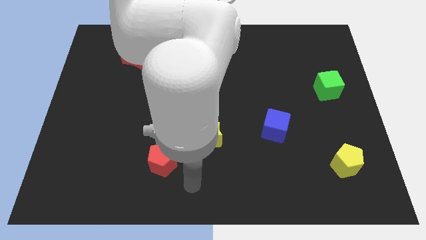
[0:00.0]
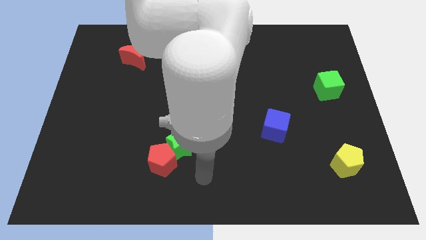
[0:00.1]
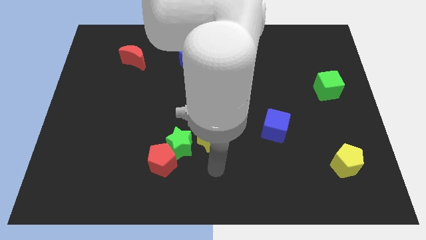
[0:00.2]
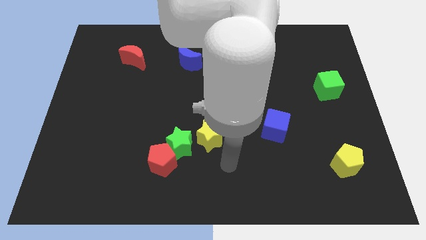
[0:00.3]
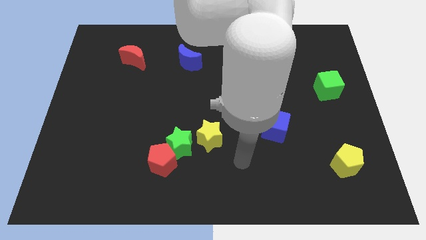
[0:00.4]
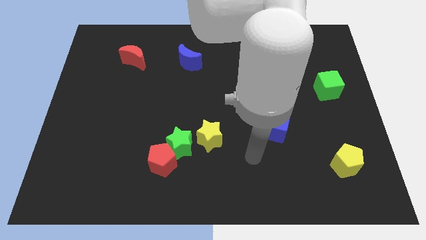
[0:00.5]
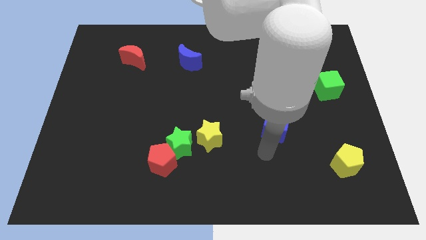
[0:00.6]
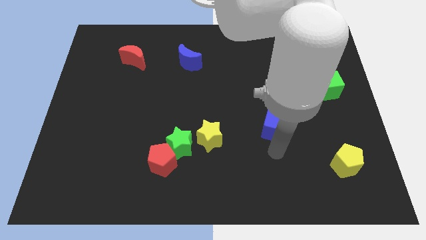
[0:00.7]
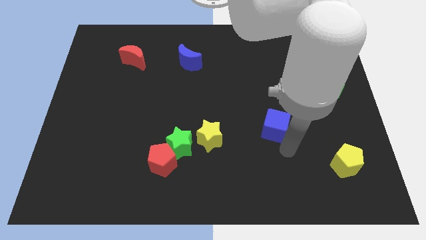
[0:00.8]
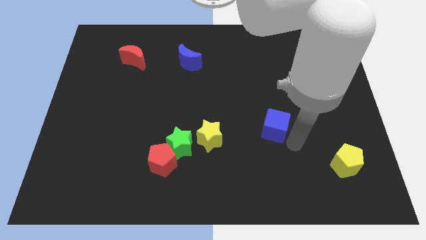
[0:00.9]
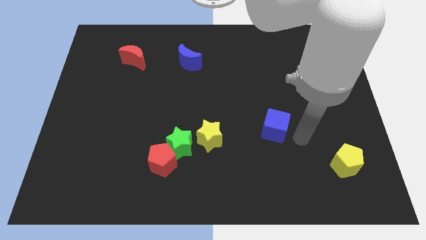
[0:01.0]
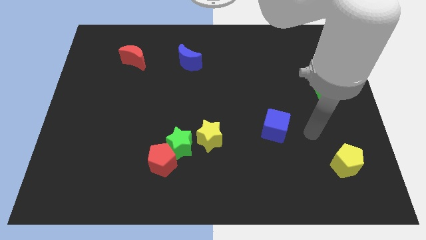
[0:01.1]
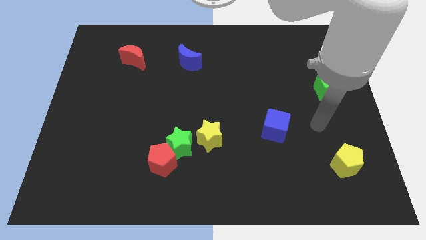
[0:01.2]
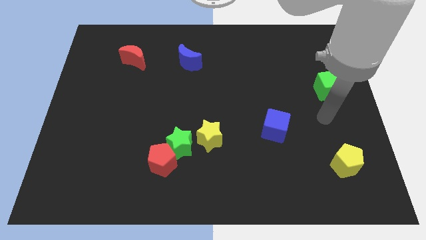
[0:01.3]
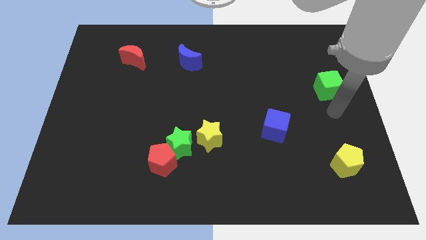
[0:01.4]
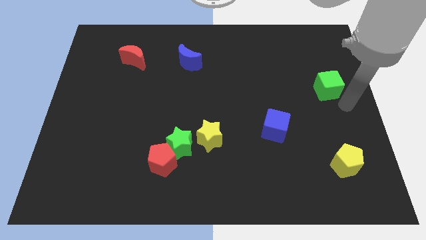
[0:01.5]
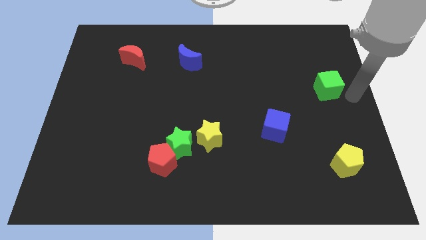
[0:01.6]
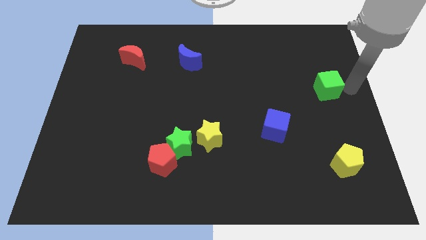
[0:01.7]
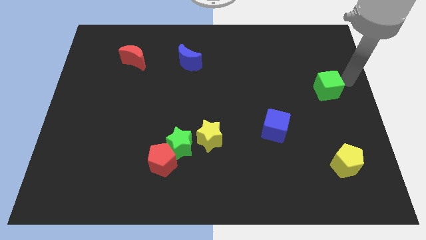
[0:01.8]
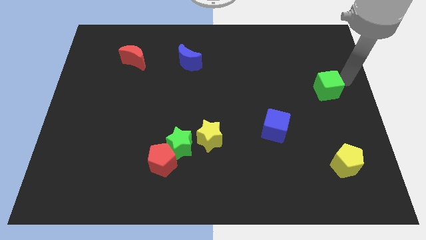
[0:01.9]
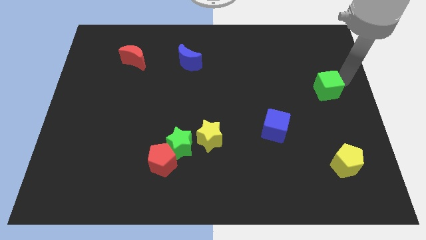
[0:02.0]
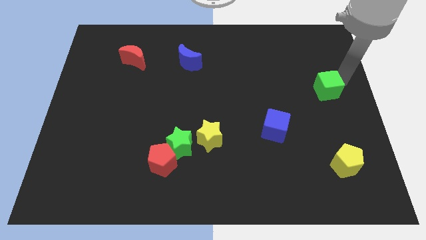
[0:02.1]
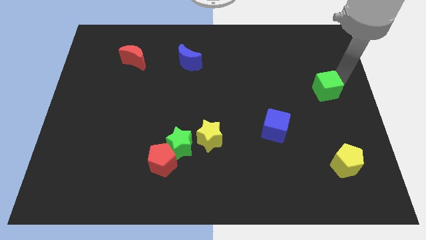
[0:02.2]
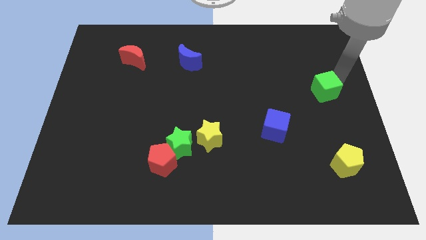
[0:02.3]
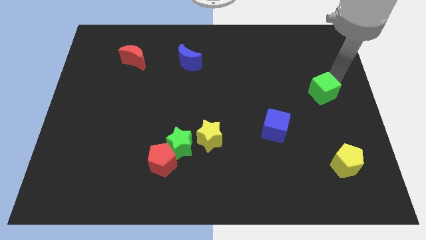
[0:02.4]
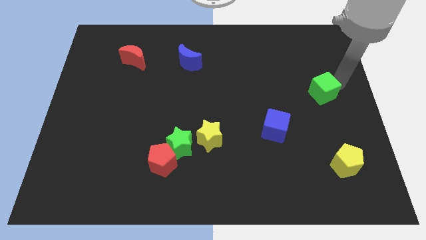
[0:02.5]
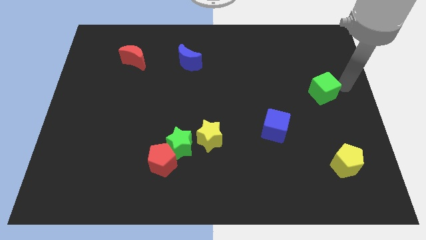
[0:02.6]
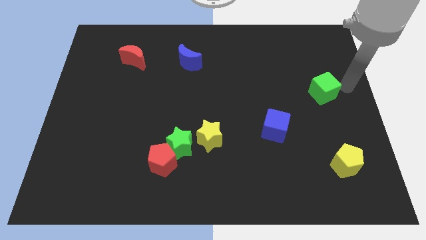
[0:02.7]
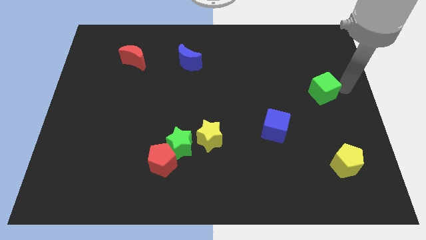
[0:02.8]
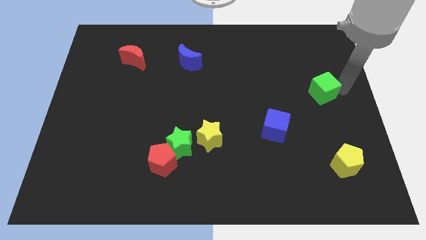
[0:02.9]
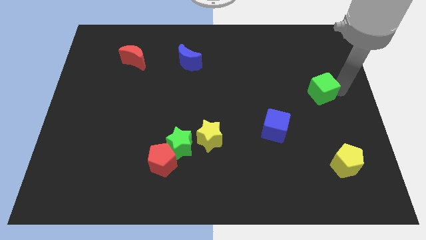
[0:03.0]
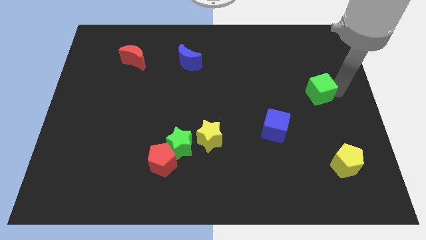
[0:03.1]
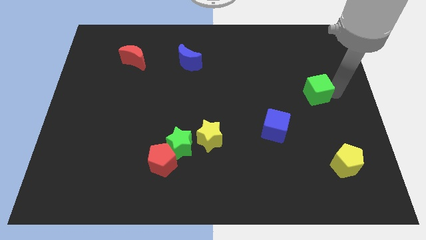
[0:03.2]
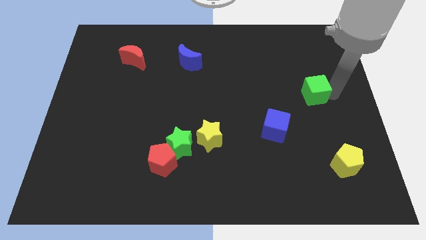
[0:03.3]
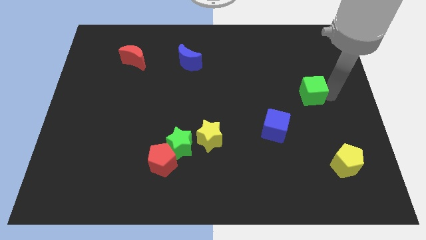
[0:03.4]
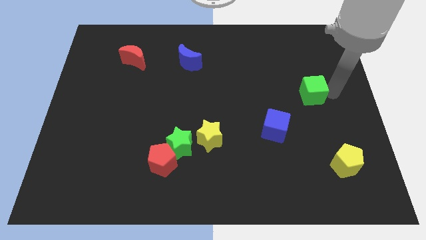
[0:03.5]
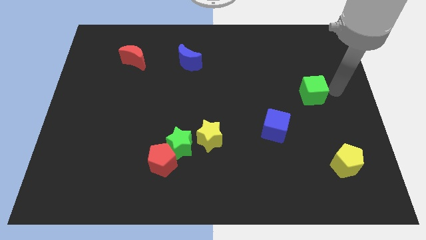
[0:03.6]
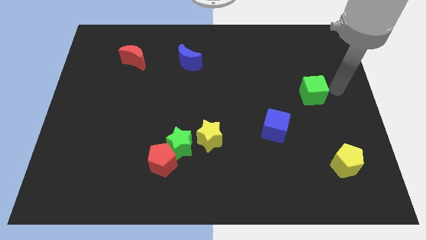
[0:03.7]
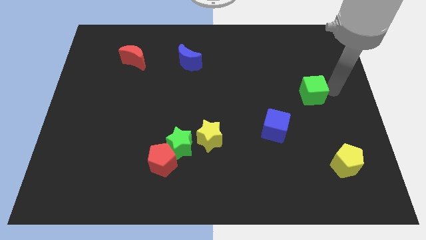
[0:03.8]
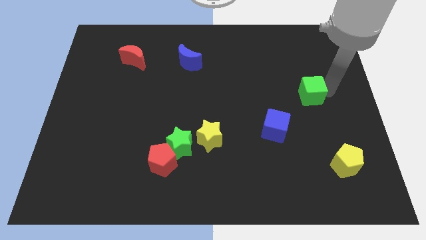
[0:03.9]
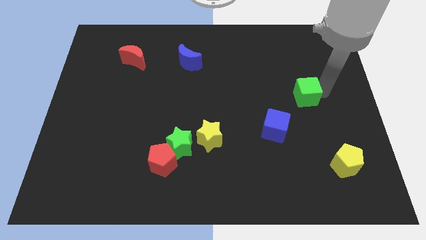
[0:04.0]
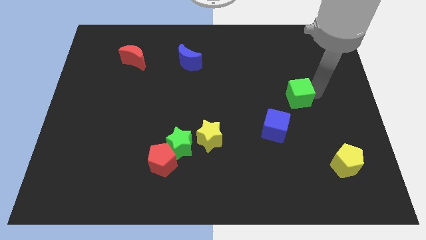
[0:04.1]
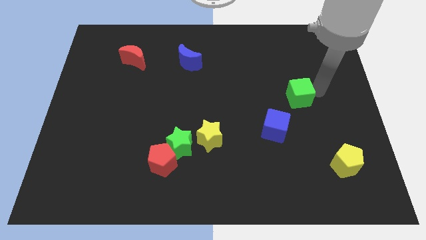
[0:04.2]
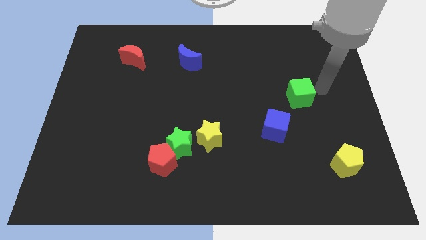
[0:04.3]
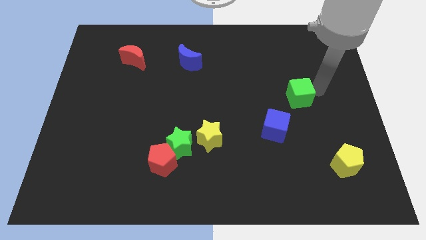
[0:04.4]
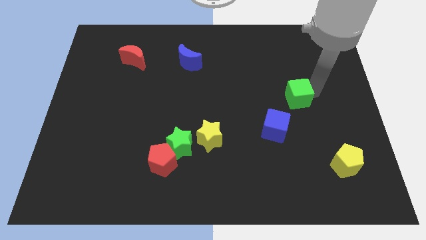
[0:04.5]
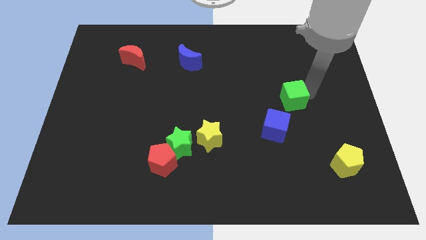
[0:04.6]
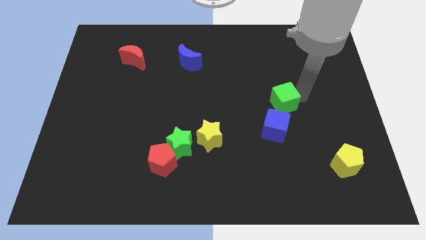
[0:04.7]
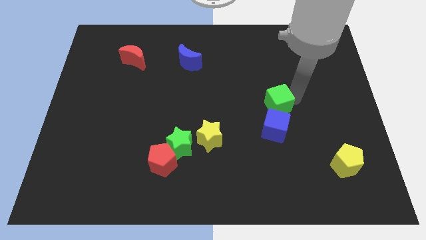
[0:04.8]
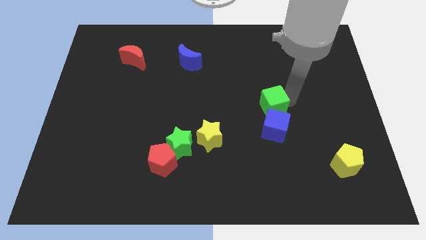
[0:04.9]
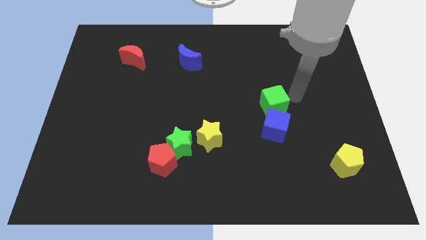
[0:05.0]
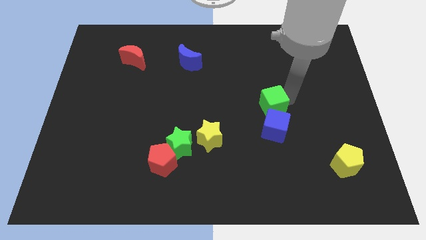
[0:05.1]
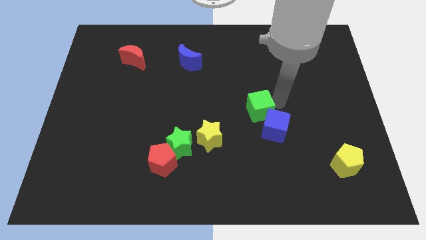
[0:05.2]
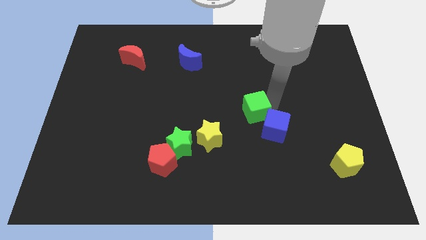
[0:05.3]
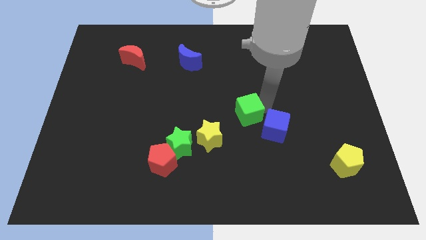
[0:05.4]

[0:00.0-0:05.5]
move the green cube to the top right of the yellow star

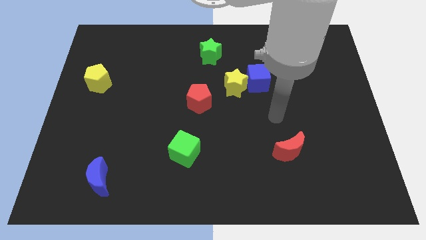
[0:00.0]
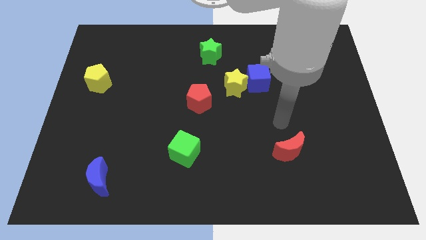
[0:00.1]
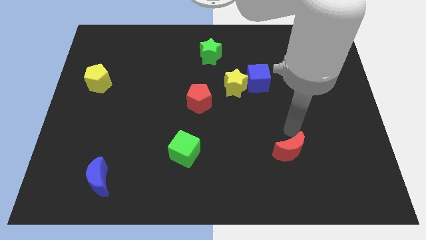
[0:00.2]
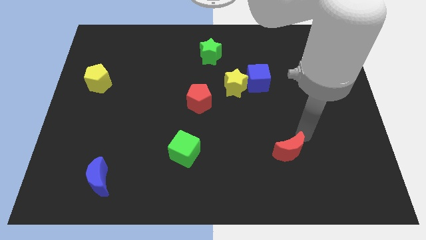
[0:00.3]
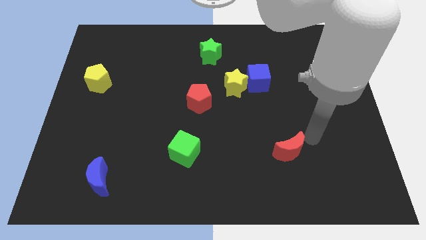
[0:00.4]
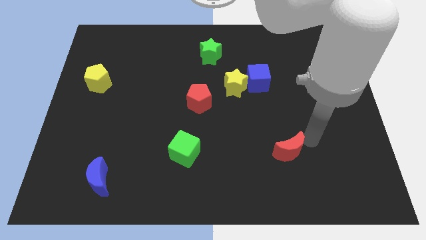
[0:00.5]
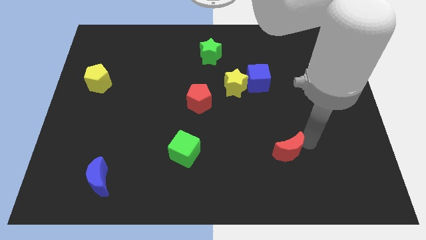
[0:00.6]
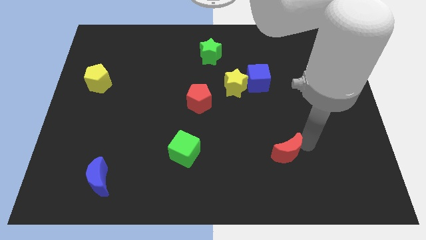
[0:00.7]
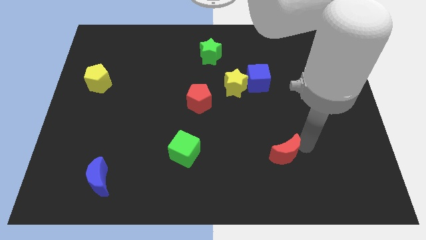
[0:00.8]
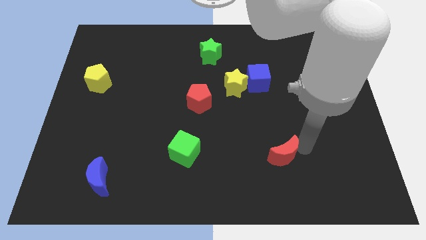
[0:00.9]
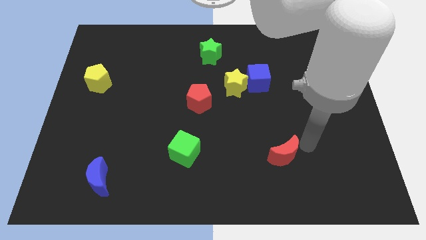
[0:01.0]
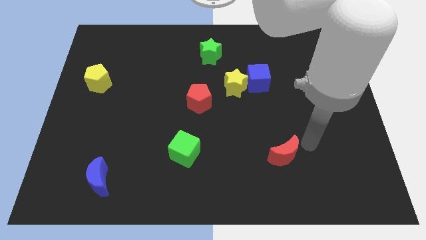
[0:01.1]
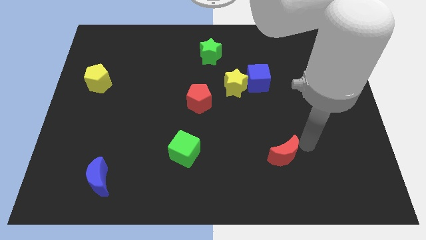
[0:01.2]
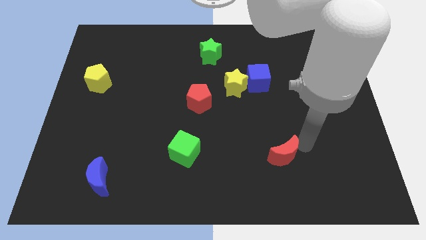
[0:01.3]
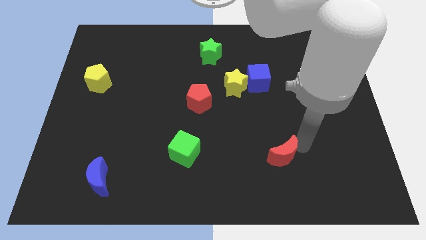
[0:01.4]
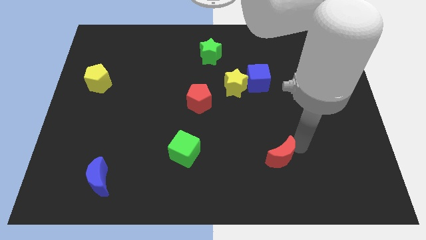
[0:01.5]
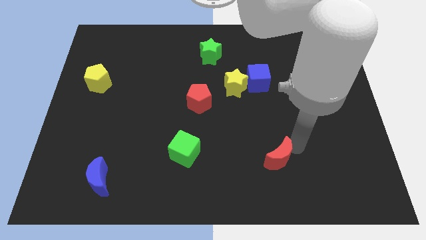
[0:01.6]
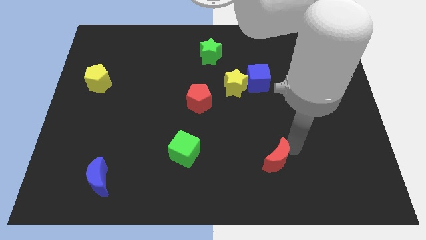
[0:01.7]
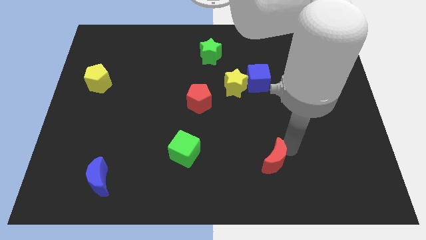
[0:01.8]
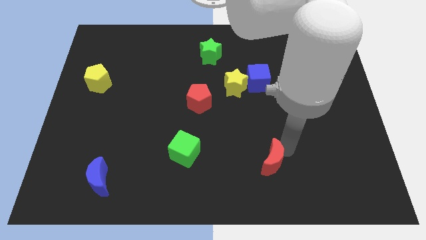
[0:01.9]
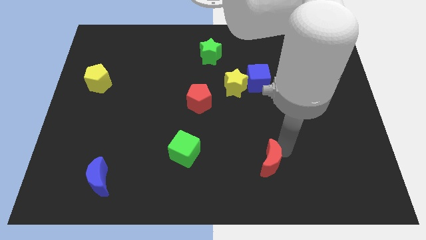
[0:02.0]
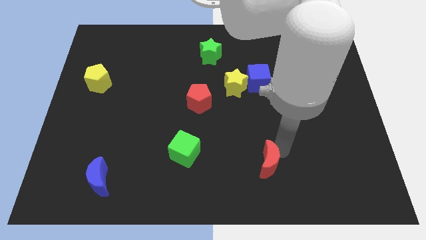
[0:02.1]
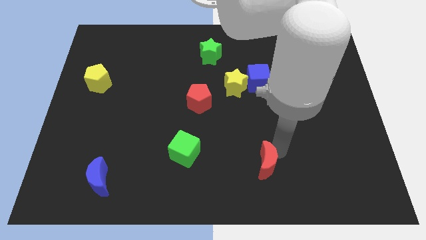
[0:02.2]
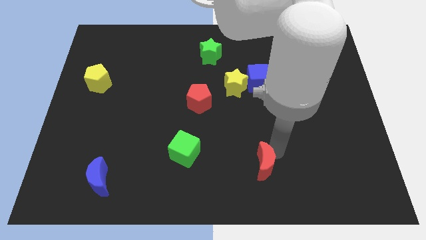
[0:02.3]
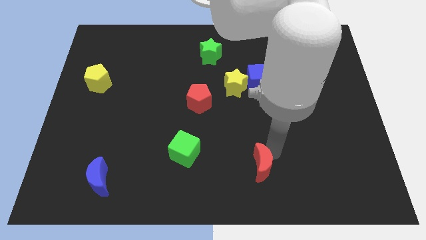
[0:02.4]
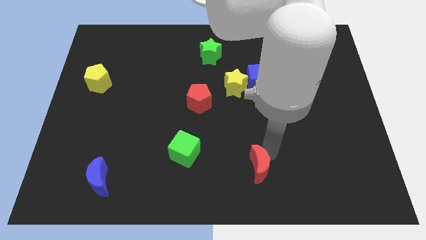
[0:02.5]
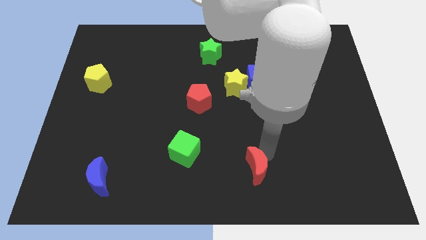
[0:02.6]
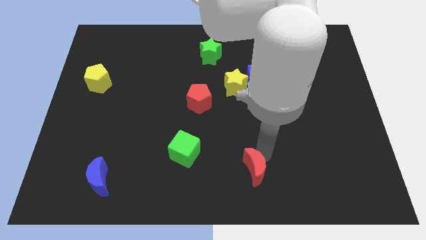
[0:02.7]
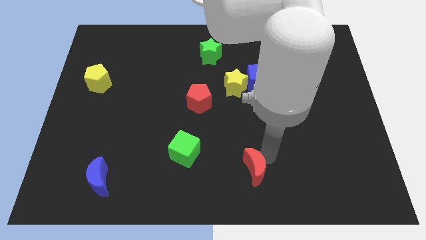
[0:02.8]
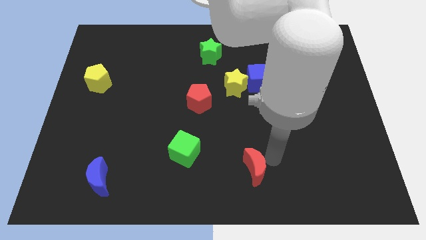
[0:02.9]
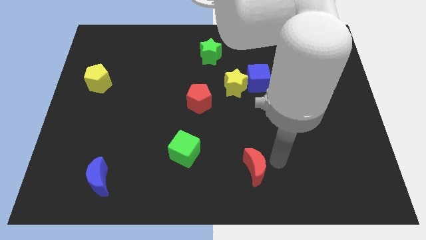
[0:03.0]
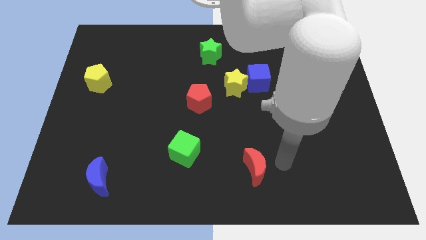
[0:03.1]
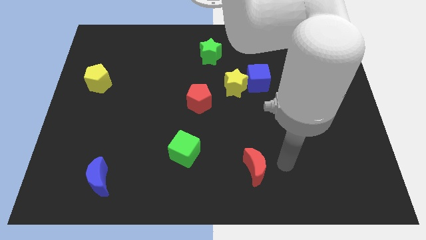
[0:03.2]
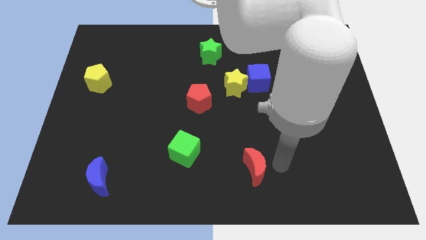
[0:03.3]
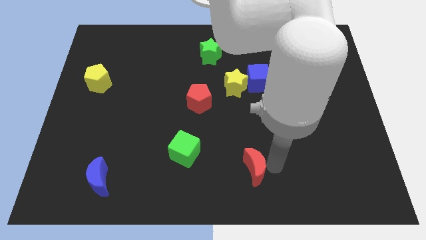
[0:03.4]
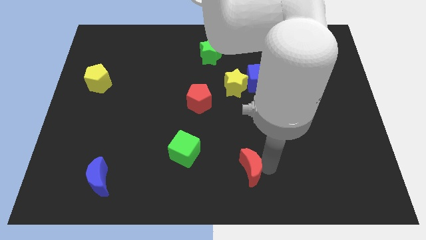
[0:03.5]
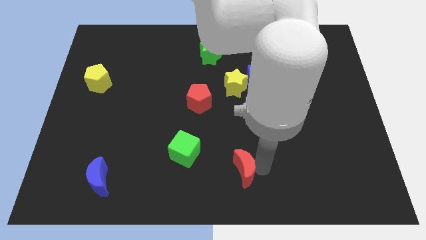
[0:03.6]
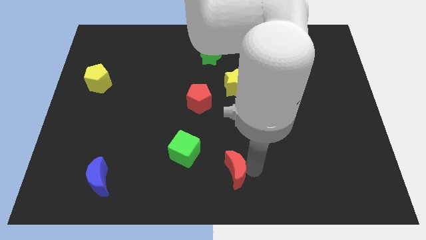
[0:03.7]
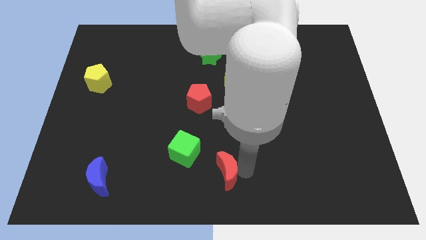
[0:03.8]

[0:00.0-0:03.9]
put the red moon to the bottom right of the green cube
